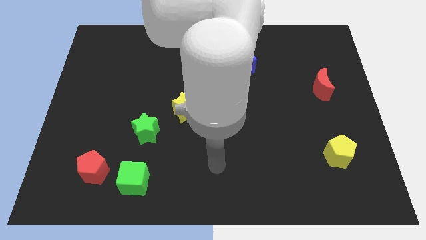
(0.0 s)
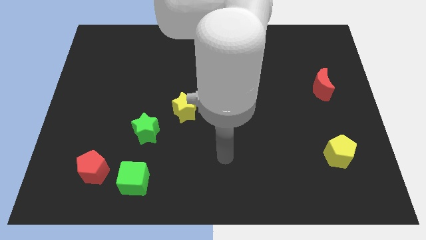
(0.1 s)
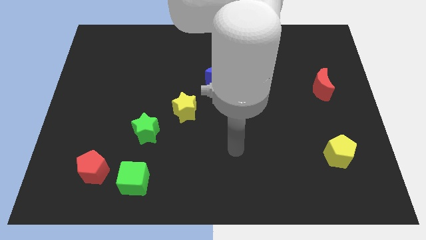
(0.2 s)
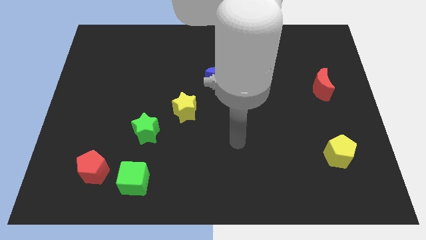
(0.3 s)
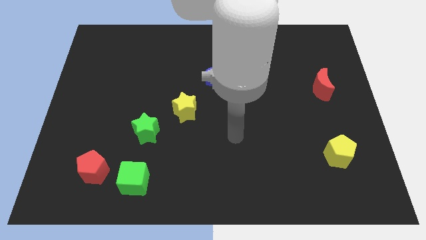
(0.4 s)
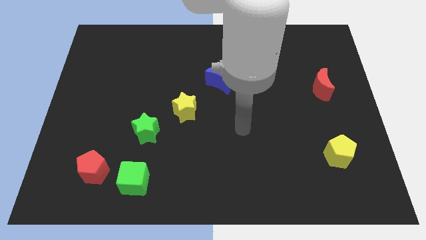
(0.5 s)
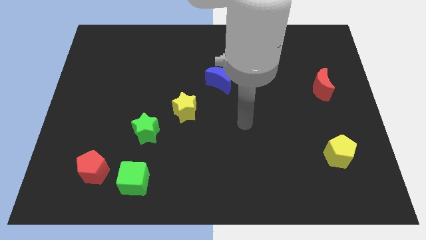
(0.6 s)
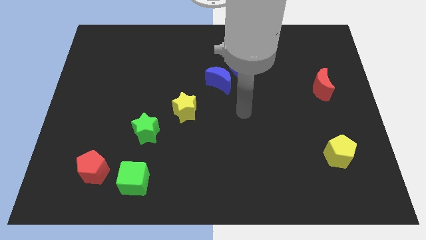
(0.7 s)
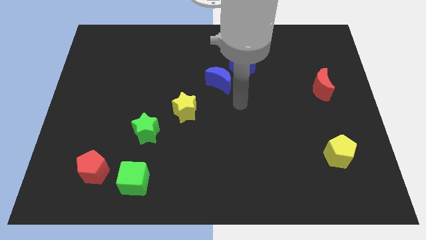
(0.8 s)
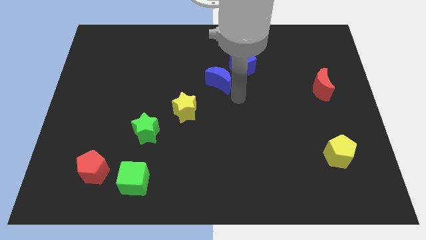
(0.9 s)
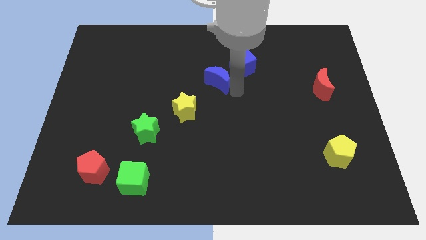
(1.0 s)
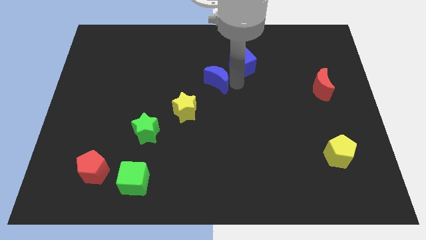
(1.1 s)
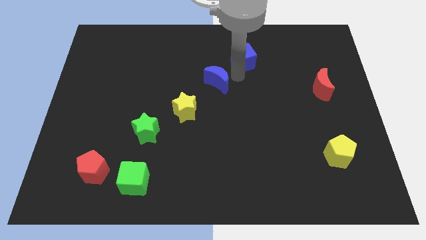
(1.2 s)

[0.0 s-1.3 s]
move the blue moon away from the blue cube

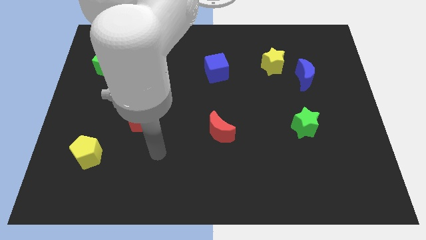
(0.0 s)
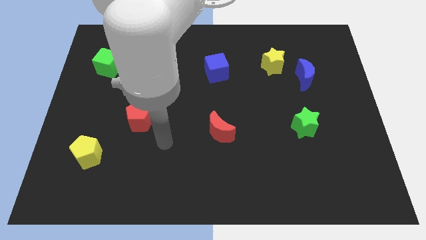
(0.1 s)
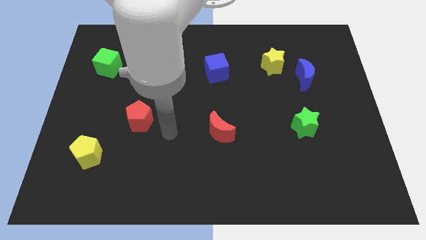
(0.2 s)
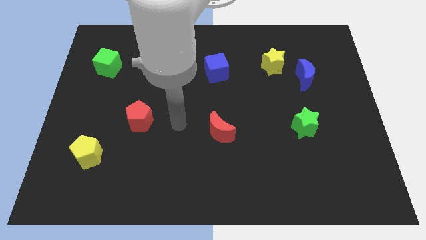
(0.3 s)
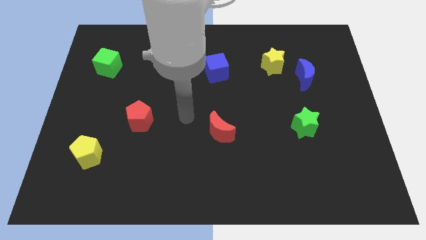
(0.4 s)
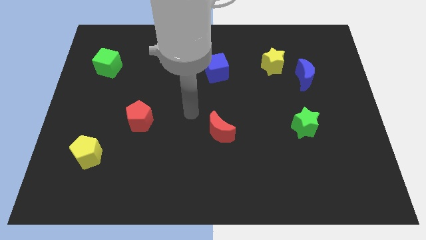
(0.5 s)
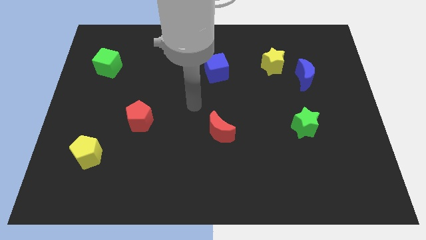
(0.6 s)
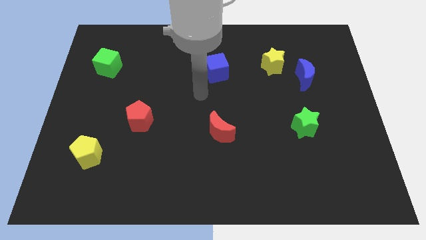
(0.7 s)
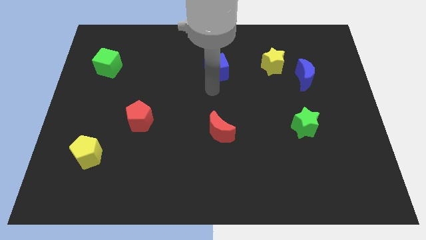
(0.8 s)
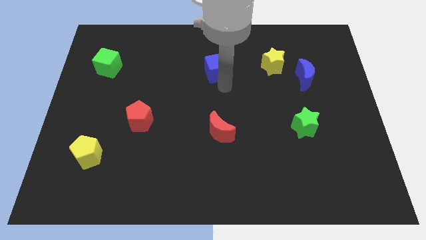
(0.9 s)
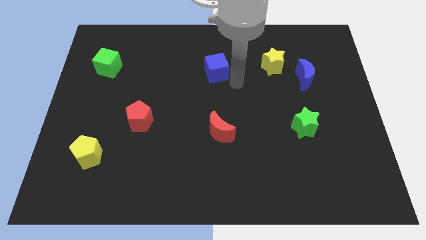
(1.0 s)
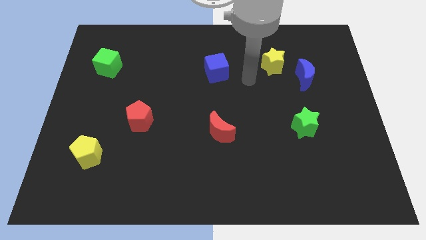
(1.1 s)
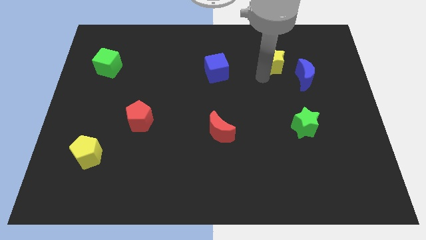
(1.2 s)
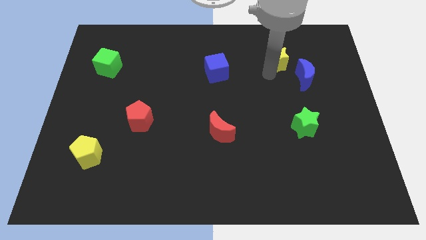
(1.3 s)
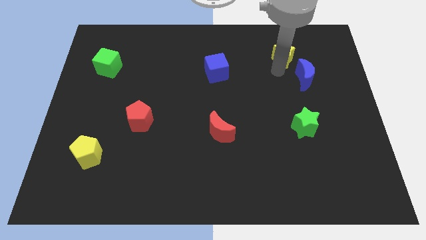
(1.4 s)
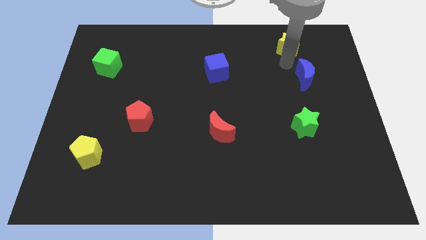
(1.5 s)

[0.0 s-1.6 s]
move the blue moon away from the yellow star

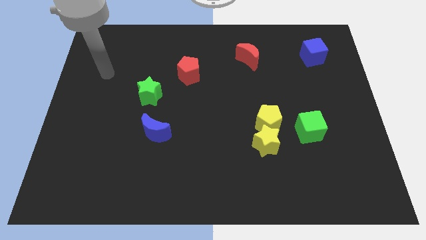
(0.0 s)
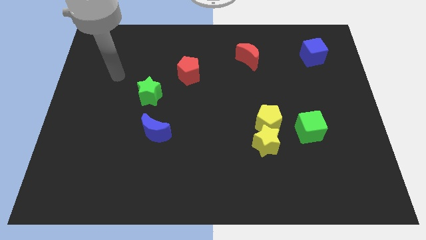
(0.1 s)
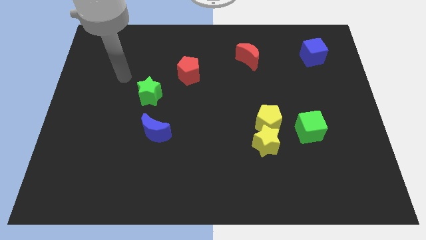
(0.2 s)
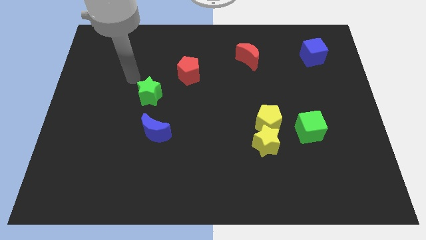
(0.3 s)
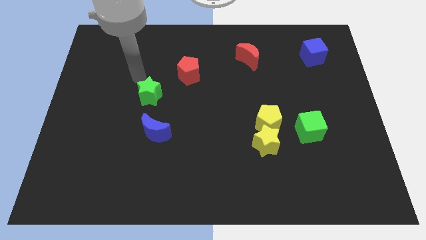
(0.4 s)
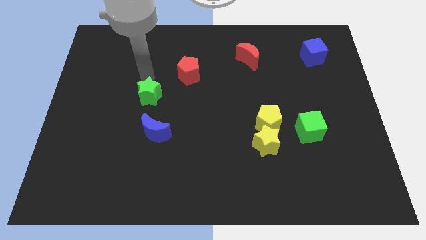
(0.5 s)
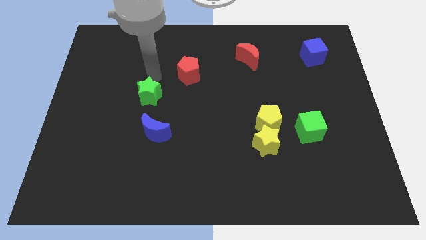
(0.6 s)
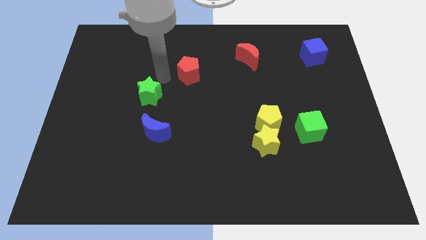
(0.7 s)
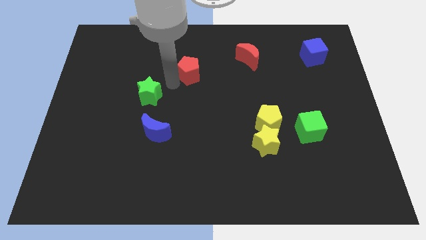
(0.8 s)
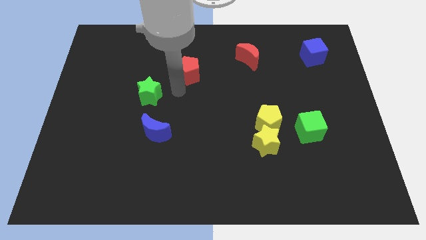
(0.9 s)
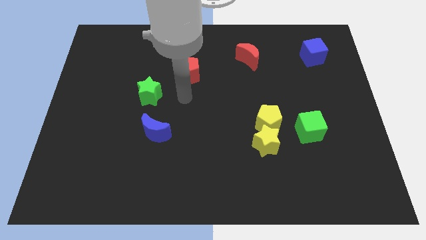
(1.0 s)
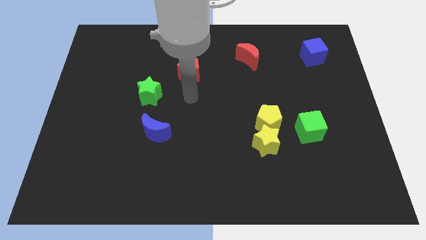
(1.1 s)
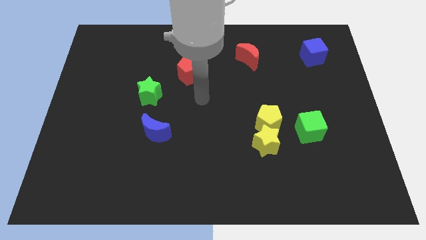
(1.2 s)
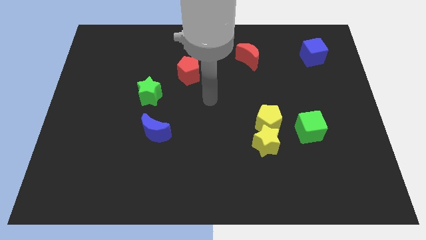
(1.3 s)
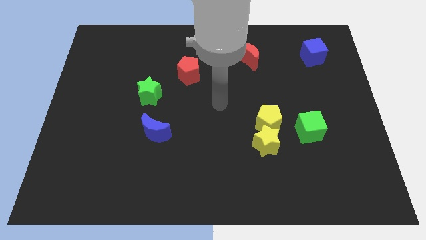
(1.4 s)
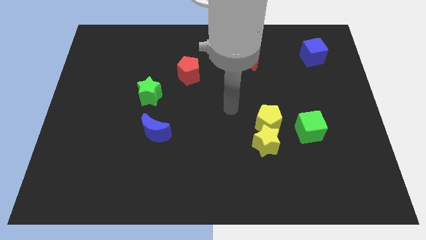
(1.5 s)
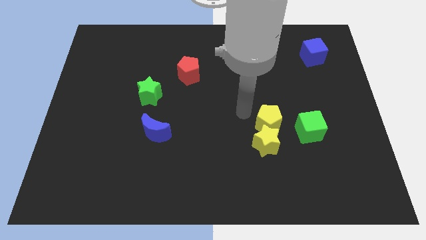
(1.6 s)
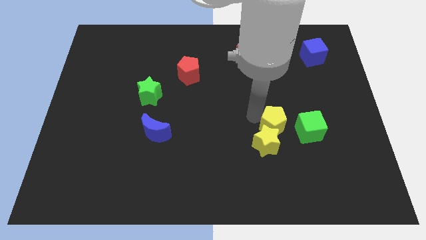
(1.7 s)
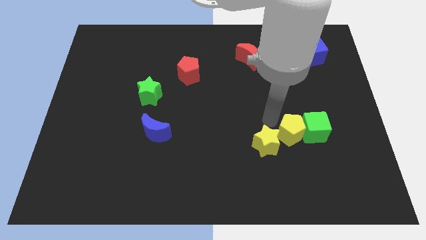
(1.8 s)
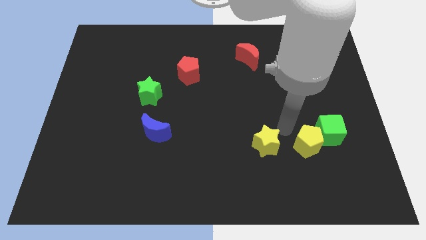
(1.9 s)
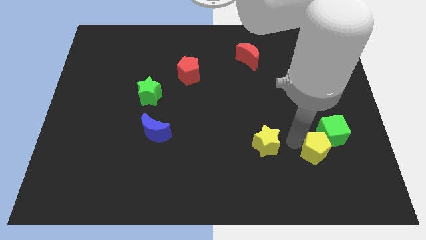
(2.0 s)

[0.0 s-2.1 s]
separate the yellow star from the yellow pentagon

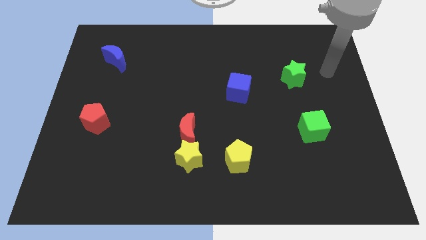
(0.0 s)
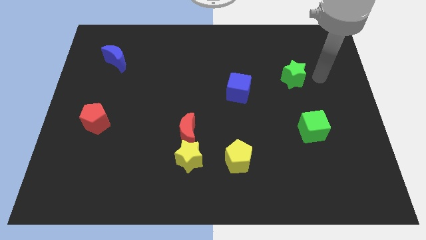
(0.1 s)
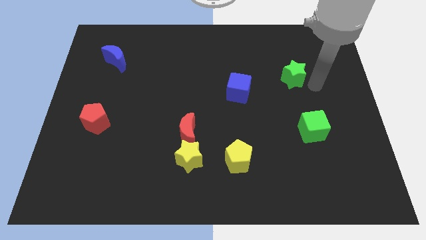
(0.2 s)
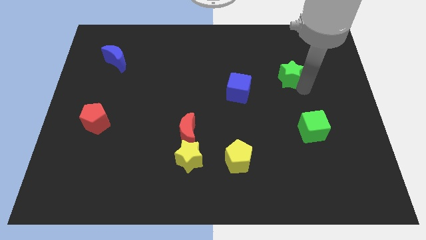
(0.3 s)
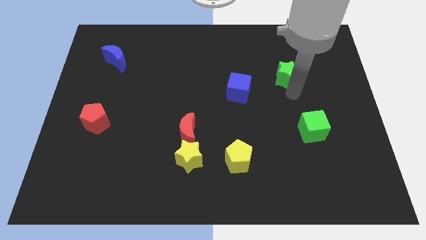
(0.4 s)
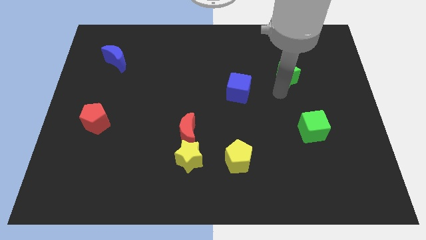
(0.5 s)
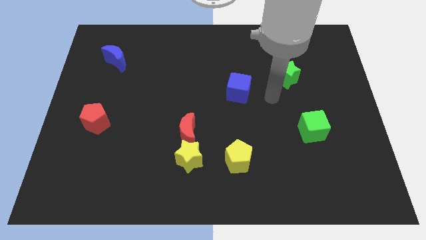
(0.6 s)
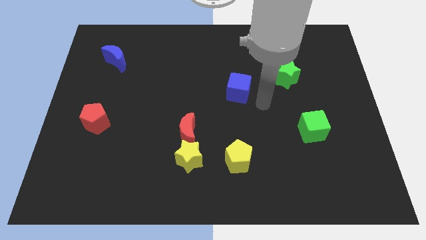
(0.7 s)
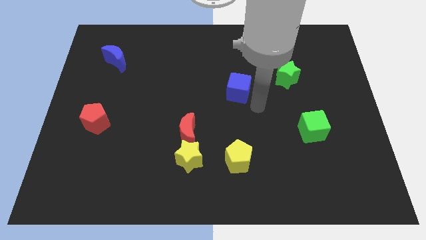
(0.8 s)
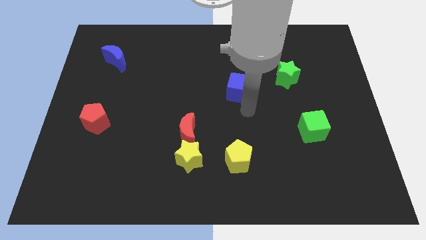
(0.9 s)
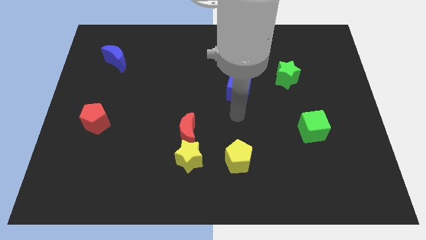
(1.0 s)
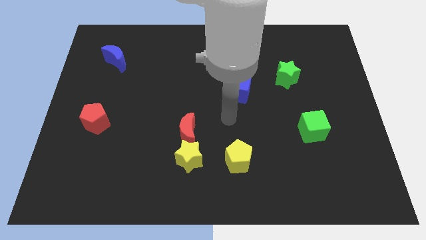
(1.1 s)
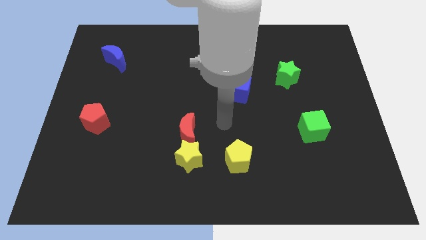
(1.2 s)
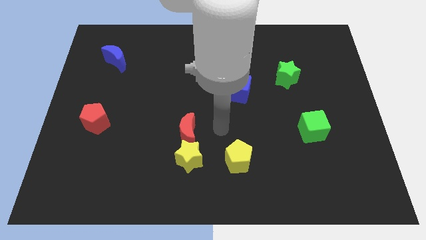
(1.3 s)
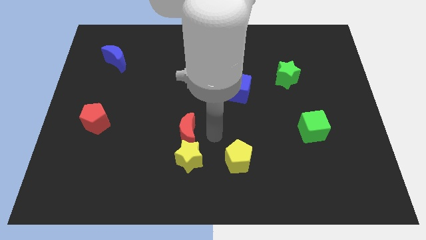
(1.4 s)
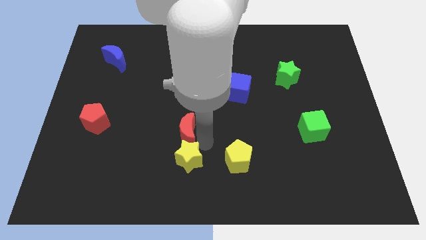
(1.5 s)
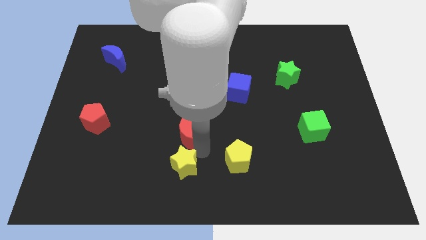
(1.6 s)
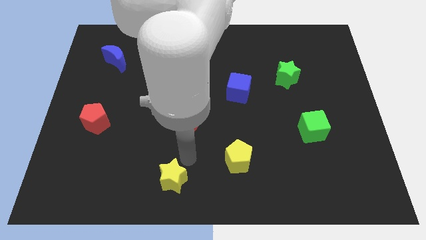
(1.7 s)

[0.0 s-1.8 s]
separate the red moon from the yellow star

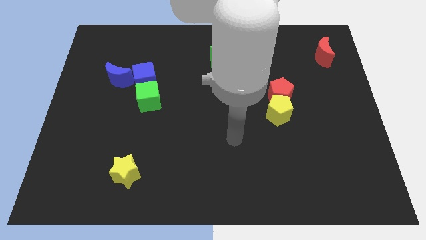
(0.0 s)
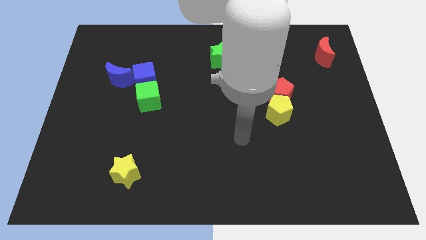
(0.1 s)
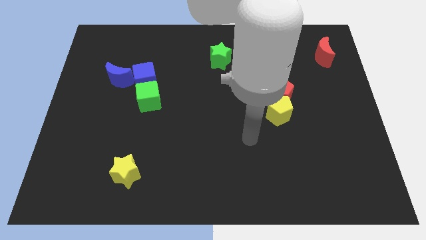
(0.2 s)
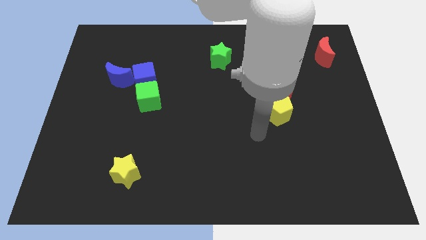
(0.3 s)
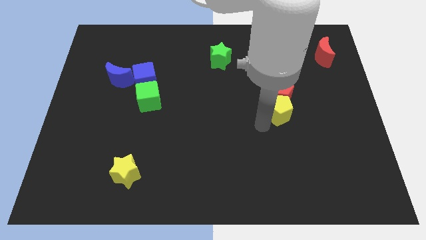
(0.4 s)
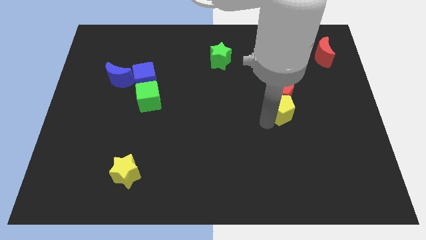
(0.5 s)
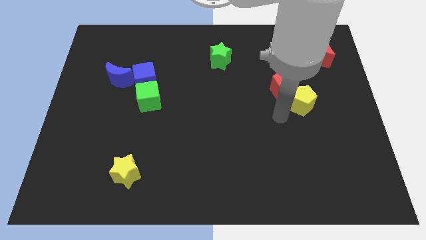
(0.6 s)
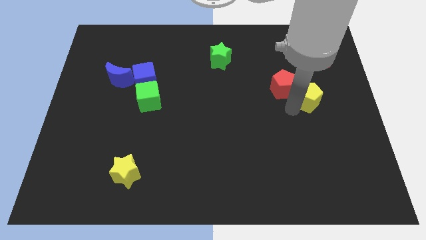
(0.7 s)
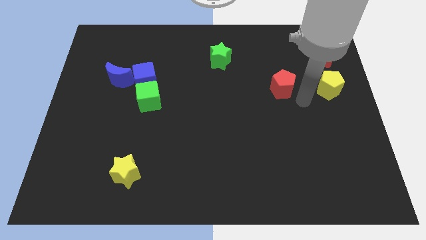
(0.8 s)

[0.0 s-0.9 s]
pull the red pentagon apart from the yellow pentagon

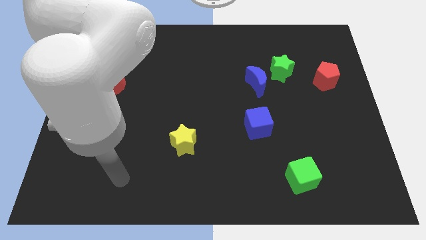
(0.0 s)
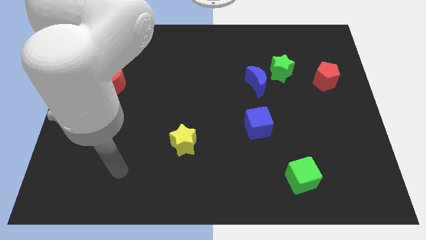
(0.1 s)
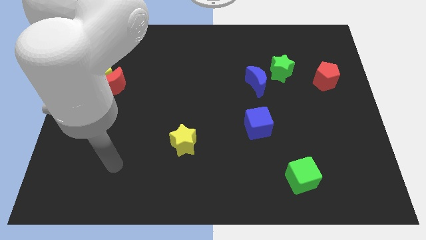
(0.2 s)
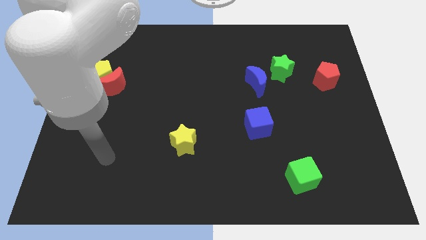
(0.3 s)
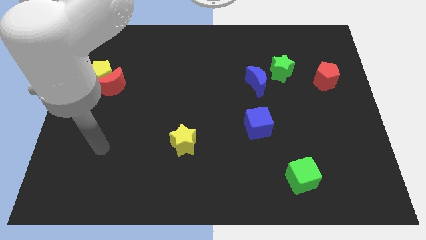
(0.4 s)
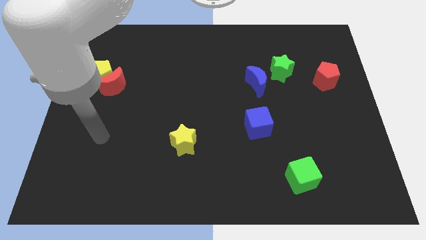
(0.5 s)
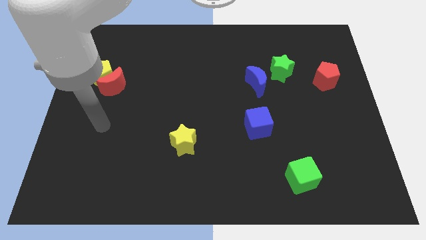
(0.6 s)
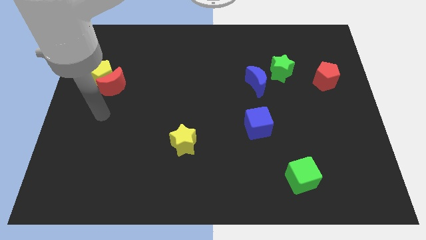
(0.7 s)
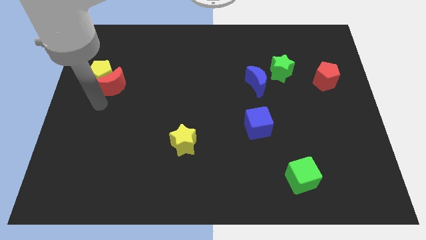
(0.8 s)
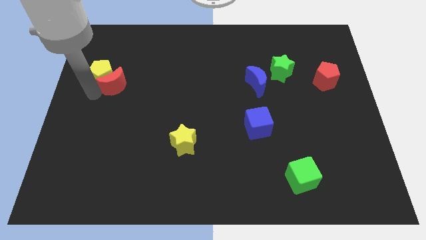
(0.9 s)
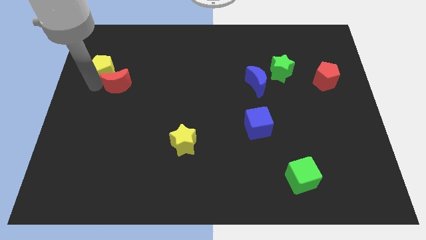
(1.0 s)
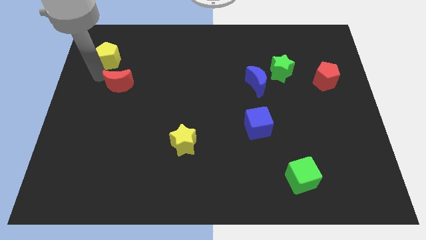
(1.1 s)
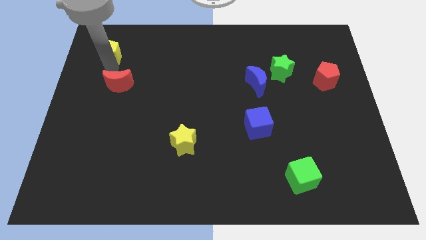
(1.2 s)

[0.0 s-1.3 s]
separate the red moon from the yellow pentagon

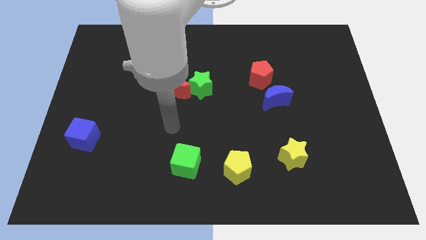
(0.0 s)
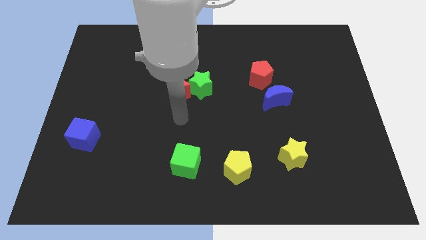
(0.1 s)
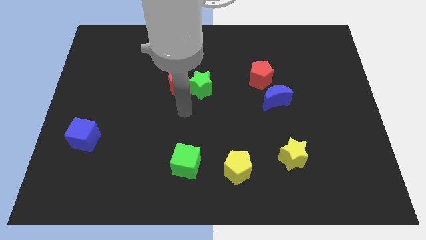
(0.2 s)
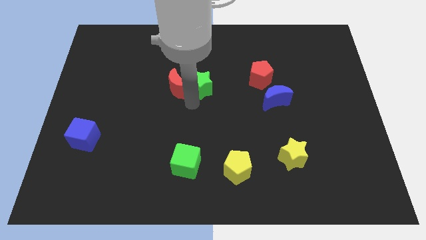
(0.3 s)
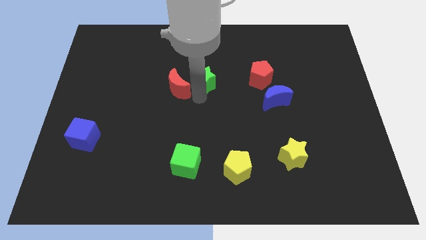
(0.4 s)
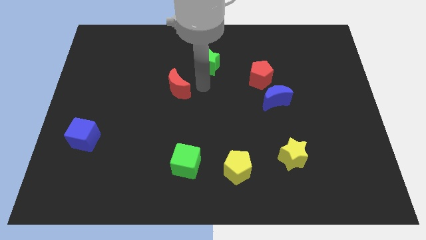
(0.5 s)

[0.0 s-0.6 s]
pull the red moon apart from the green star
